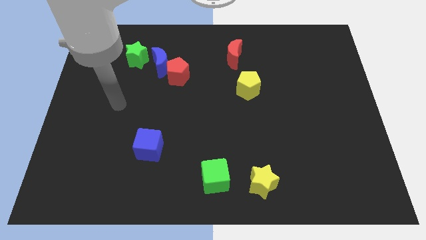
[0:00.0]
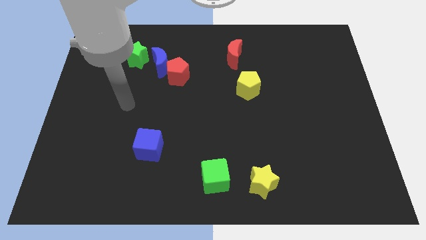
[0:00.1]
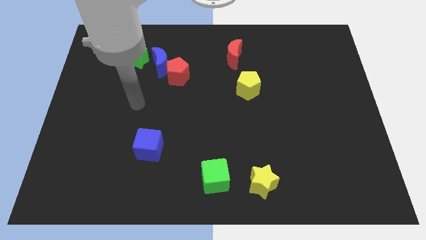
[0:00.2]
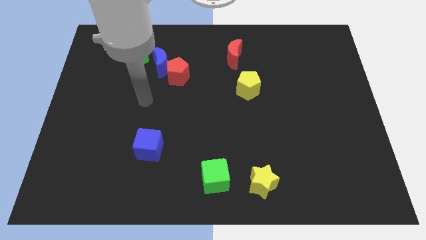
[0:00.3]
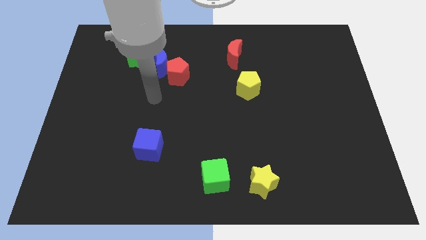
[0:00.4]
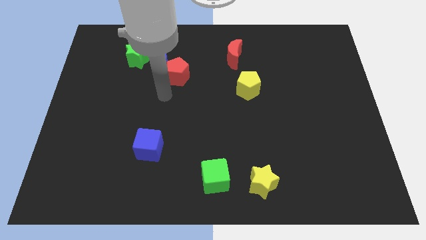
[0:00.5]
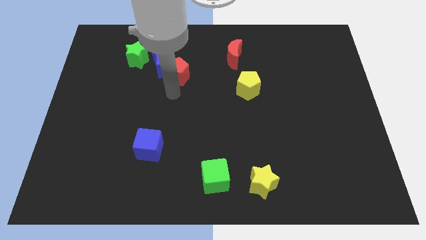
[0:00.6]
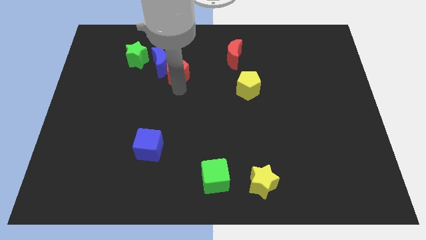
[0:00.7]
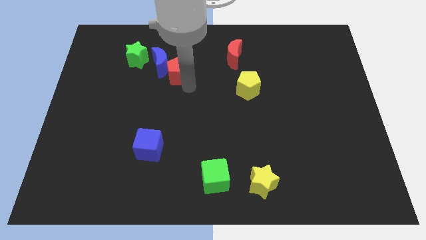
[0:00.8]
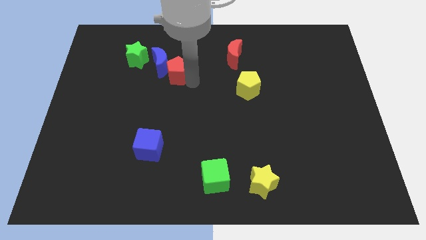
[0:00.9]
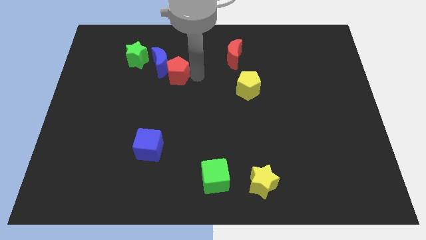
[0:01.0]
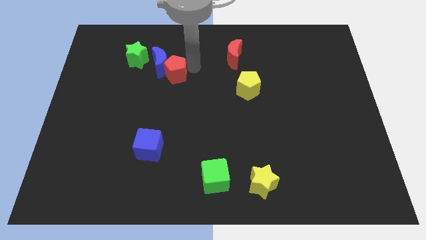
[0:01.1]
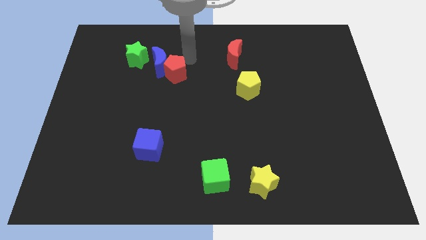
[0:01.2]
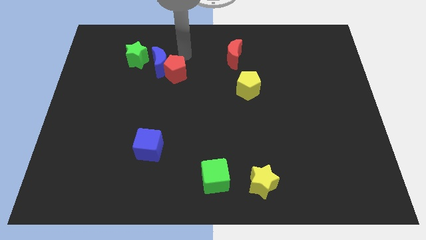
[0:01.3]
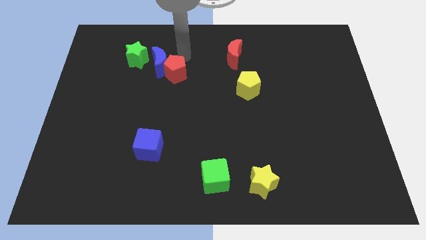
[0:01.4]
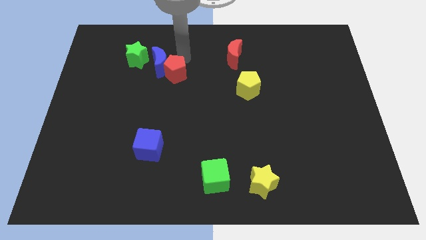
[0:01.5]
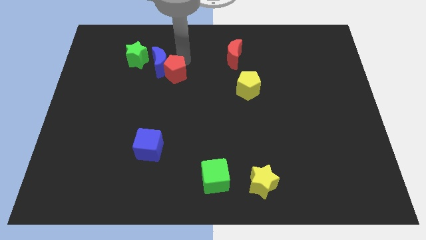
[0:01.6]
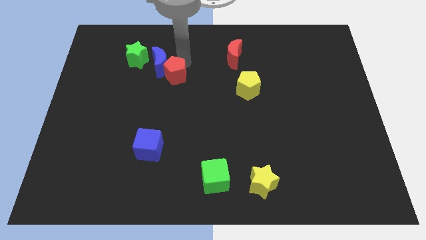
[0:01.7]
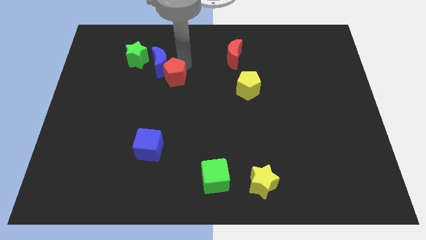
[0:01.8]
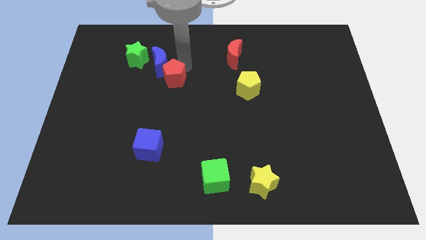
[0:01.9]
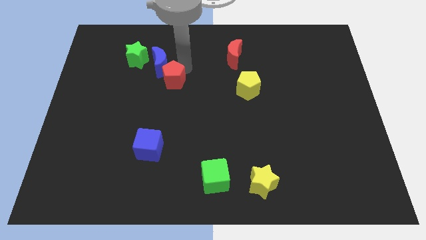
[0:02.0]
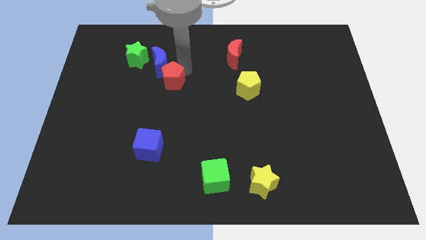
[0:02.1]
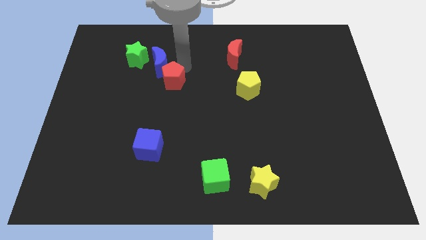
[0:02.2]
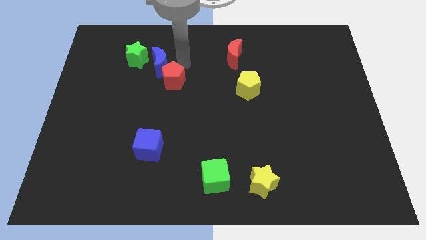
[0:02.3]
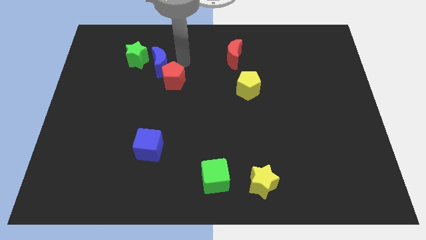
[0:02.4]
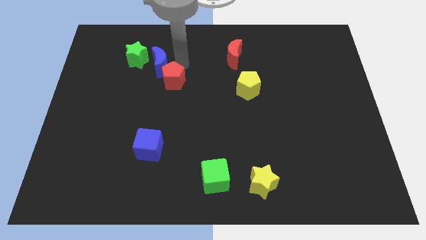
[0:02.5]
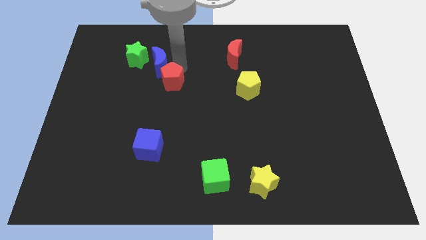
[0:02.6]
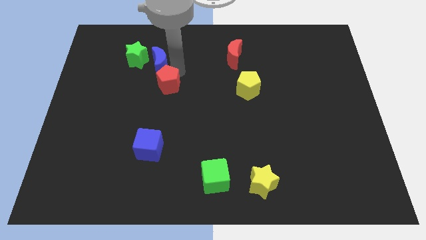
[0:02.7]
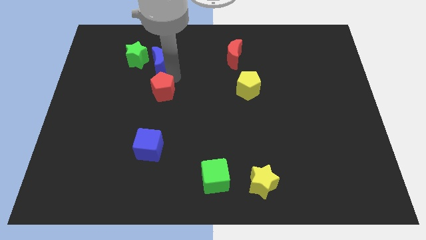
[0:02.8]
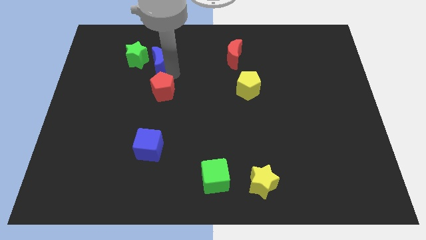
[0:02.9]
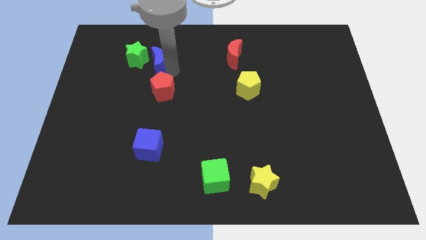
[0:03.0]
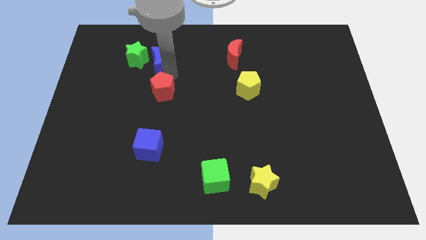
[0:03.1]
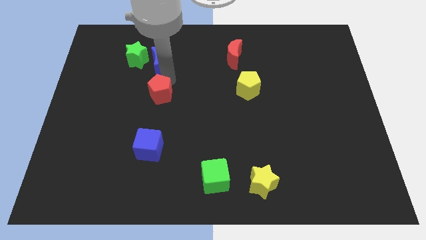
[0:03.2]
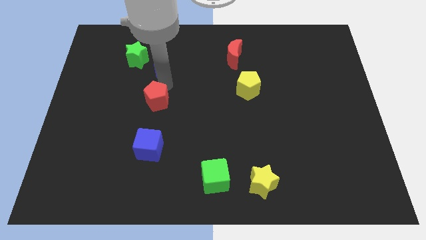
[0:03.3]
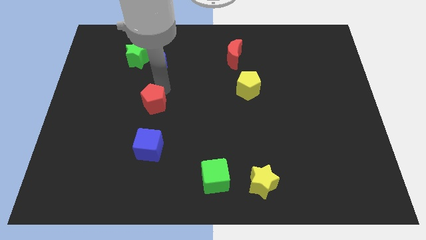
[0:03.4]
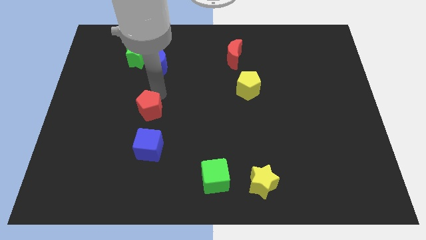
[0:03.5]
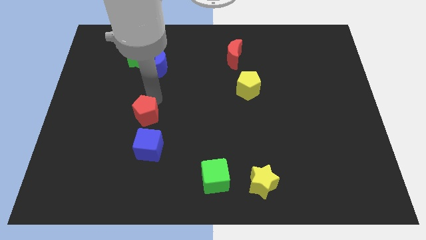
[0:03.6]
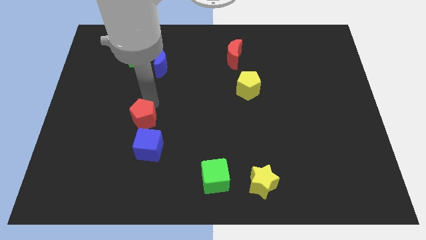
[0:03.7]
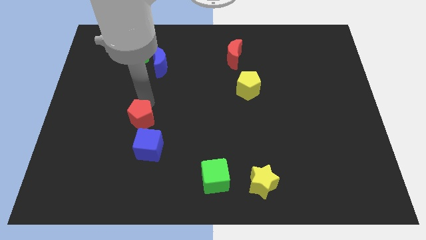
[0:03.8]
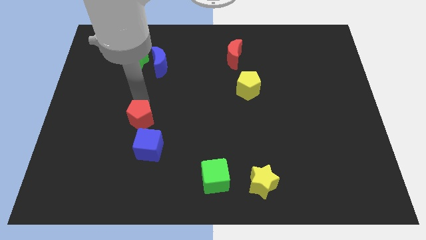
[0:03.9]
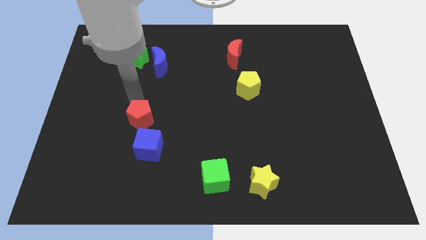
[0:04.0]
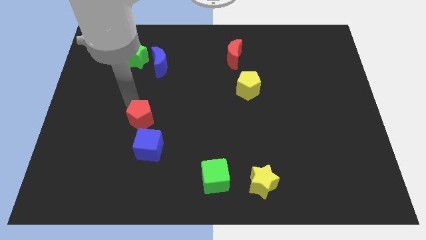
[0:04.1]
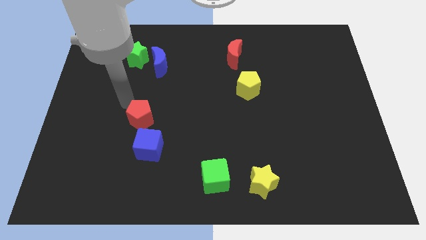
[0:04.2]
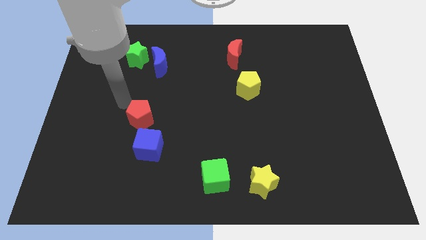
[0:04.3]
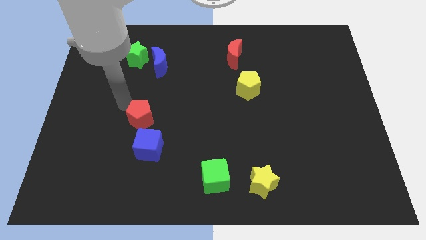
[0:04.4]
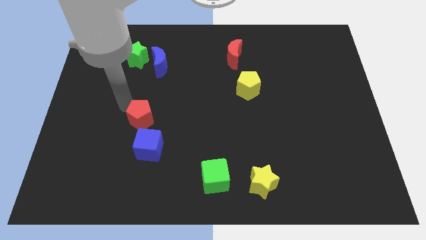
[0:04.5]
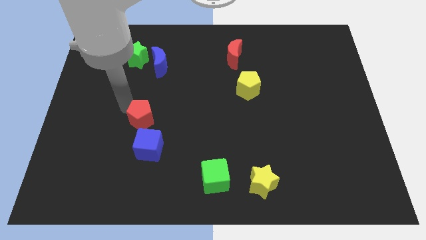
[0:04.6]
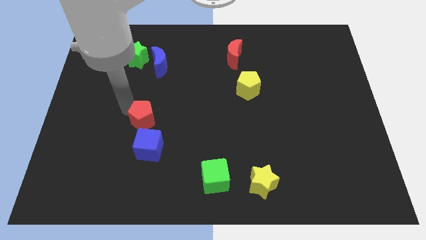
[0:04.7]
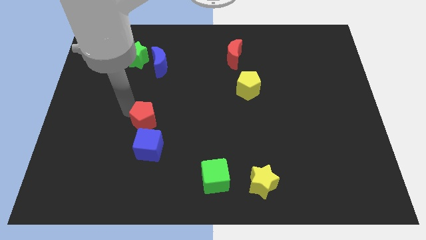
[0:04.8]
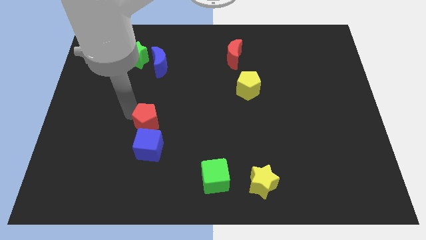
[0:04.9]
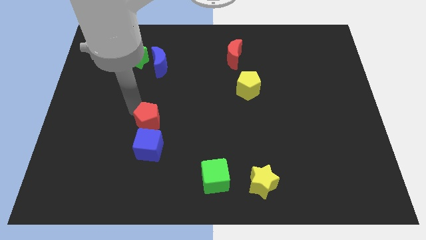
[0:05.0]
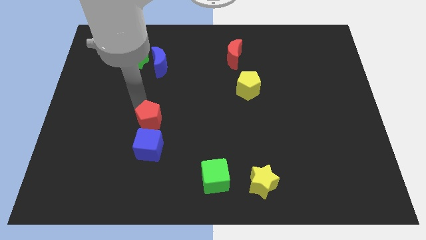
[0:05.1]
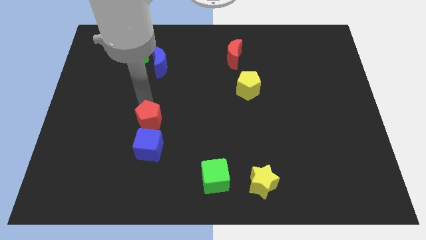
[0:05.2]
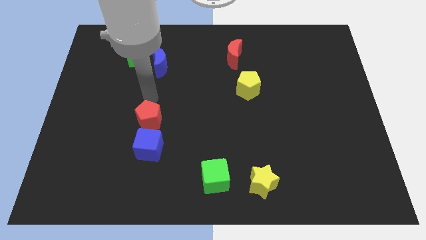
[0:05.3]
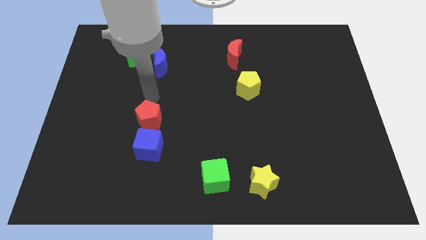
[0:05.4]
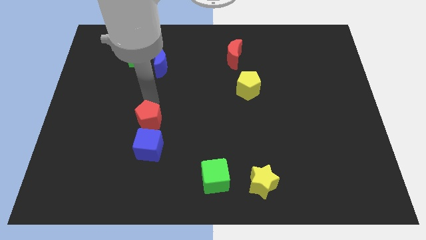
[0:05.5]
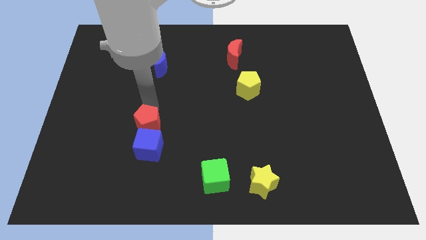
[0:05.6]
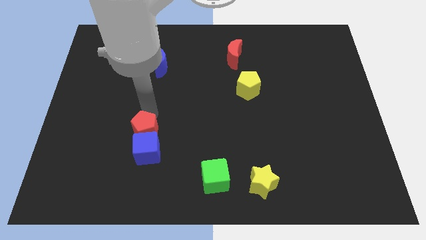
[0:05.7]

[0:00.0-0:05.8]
put the red pentagon towards the blue cube

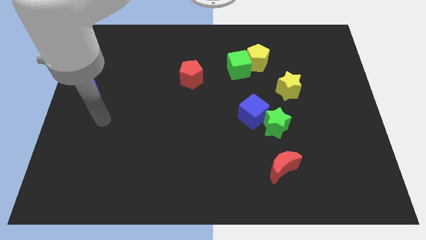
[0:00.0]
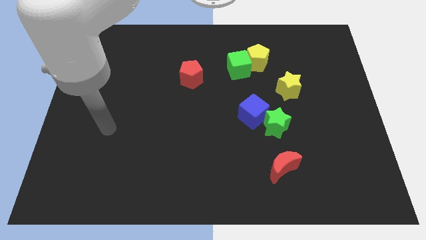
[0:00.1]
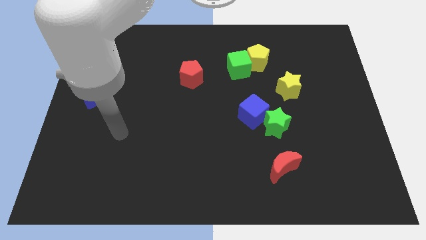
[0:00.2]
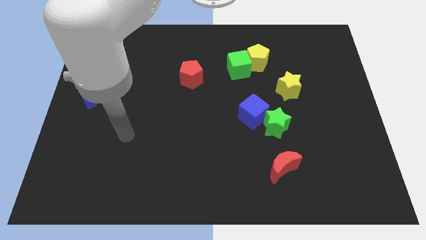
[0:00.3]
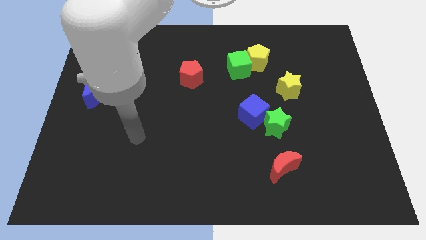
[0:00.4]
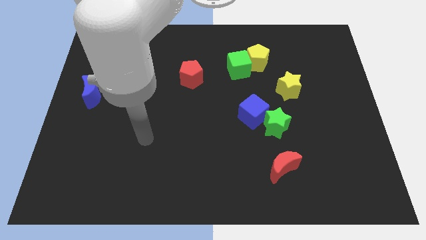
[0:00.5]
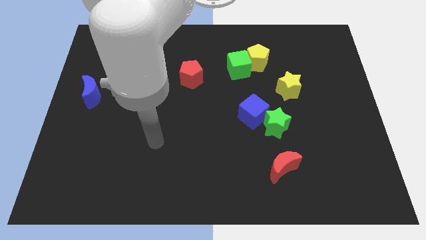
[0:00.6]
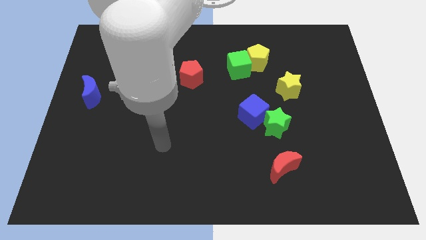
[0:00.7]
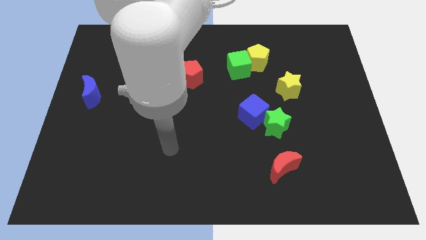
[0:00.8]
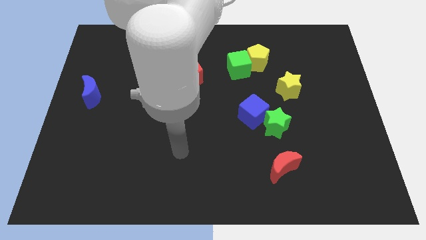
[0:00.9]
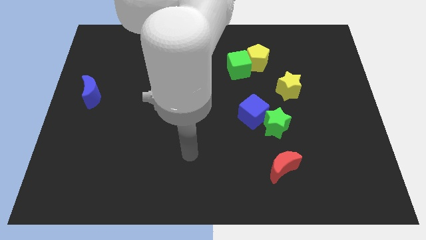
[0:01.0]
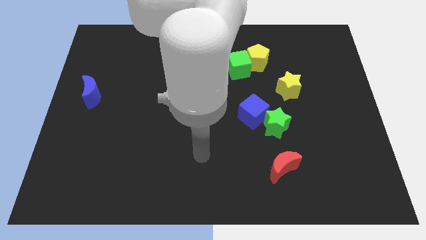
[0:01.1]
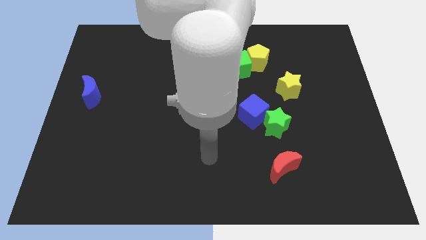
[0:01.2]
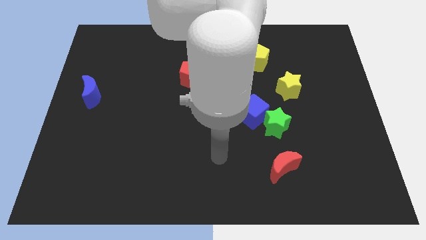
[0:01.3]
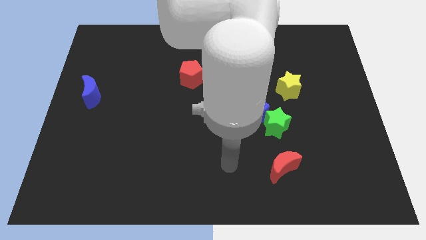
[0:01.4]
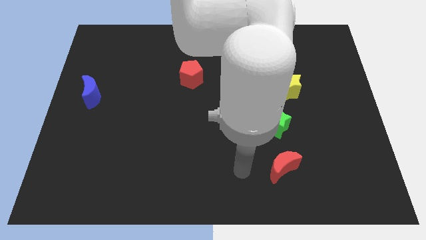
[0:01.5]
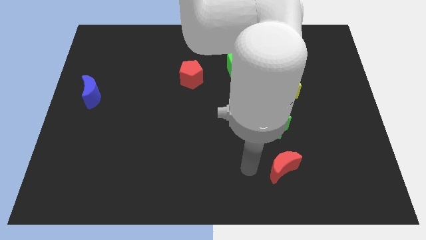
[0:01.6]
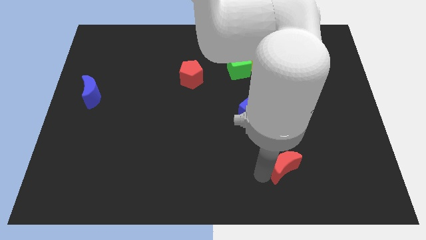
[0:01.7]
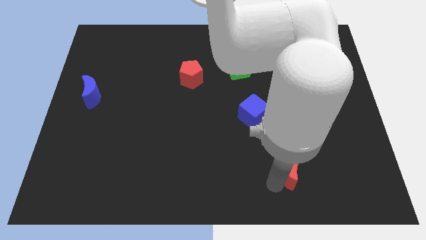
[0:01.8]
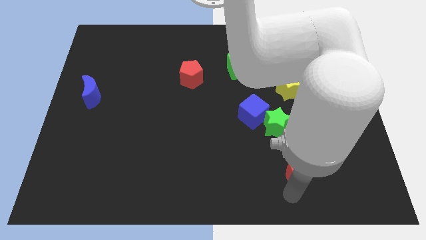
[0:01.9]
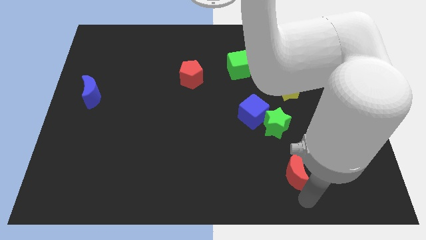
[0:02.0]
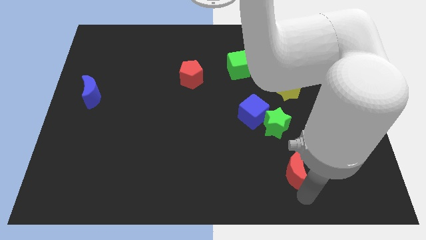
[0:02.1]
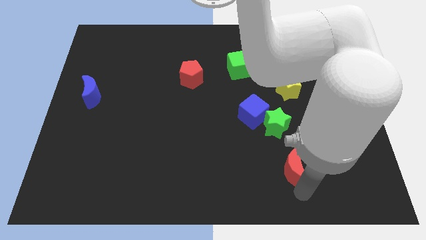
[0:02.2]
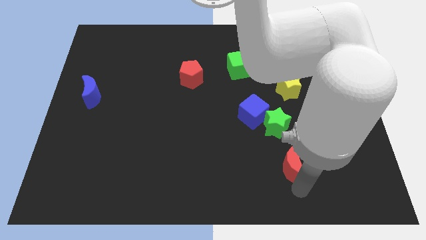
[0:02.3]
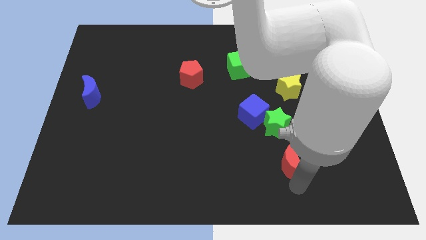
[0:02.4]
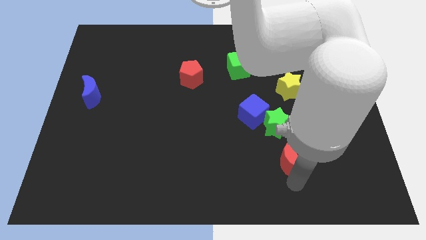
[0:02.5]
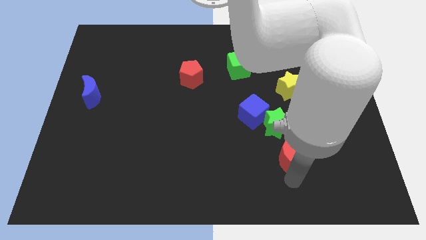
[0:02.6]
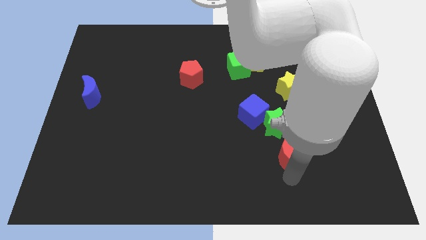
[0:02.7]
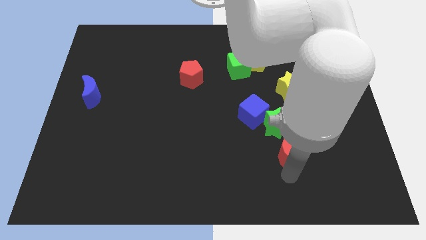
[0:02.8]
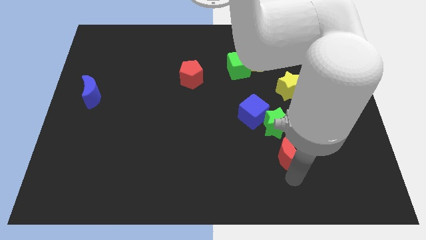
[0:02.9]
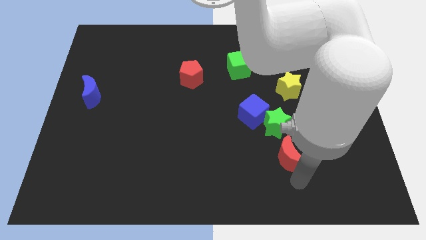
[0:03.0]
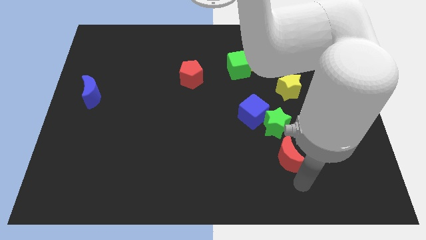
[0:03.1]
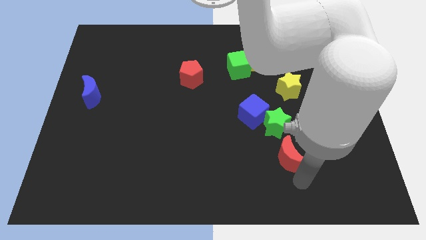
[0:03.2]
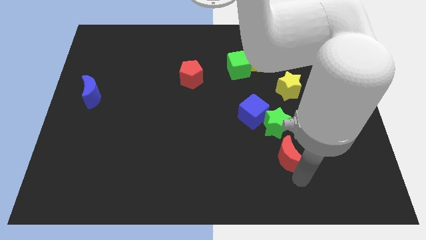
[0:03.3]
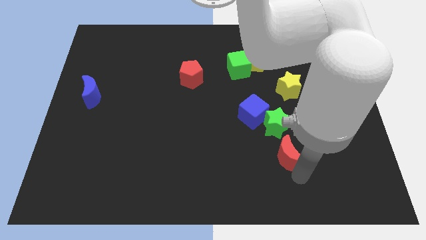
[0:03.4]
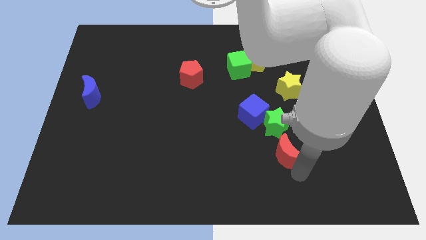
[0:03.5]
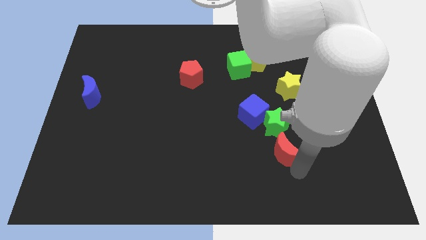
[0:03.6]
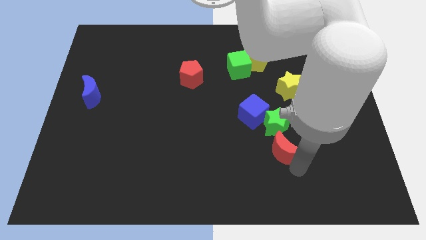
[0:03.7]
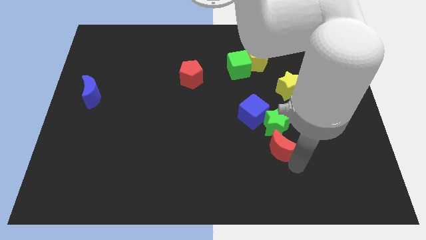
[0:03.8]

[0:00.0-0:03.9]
move the red moon towards the green star
